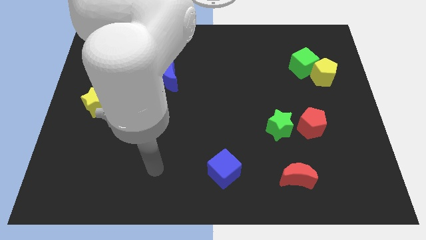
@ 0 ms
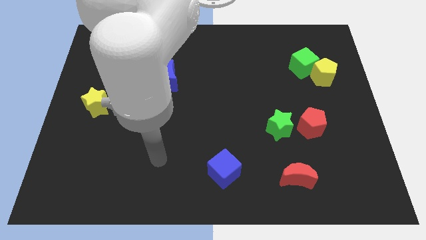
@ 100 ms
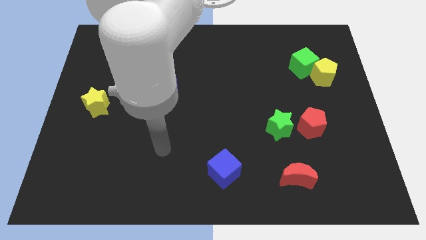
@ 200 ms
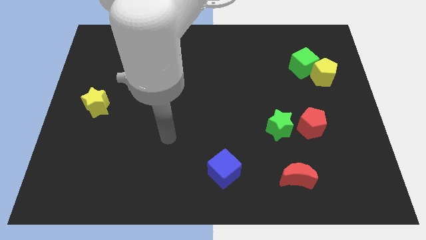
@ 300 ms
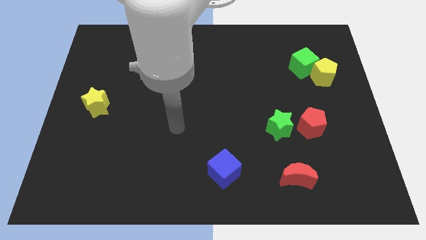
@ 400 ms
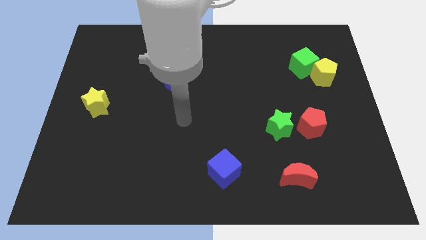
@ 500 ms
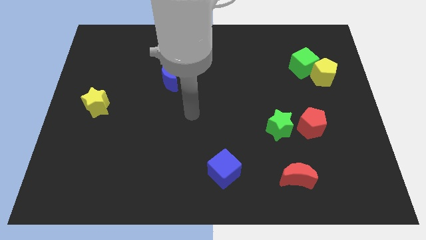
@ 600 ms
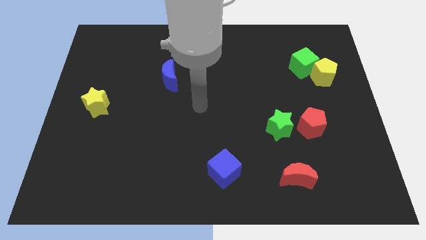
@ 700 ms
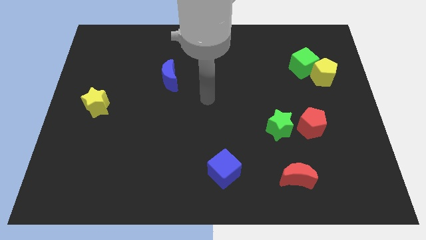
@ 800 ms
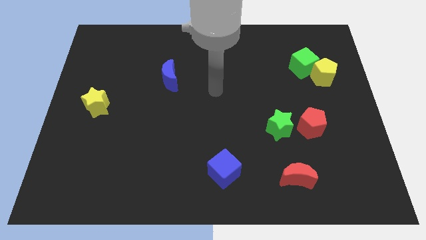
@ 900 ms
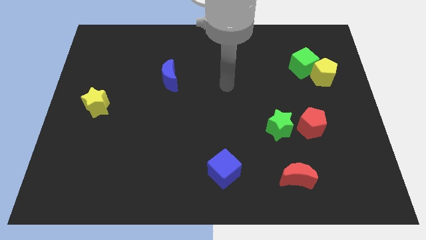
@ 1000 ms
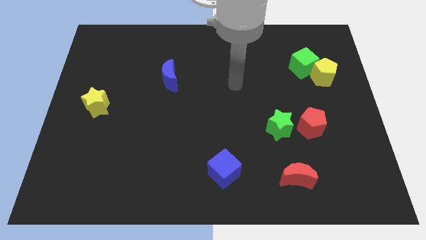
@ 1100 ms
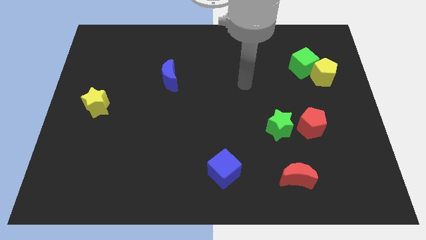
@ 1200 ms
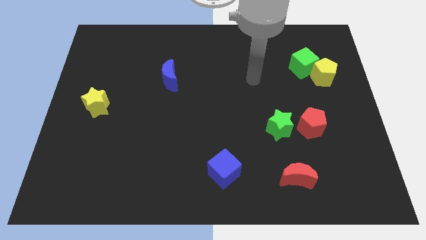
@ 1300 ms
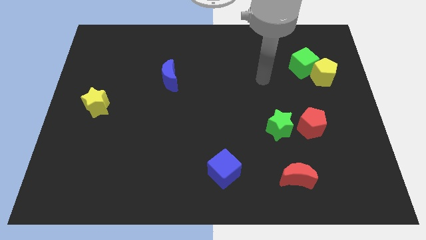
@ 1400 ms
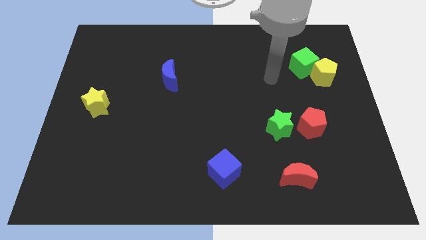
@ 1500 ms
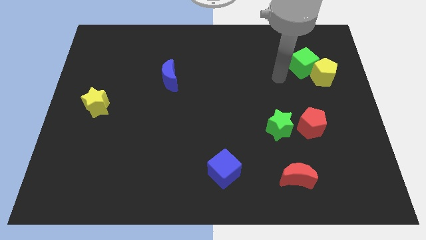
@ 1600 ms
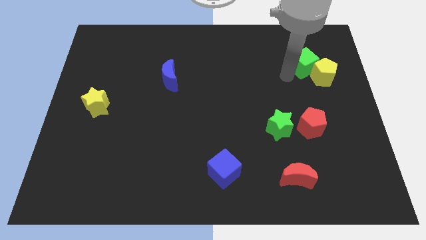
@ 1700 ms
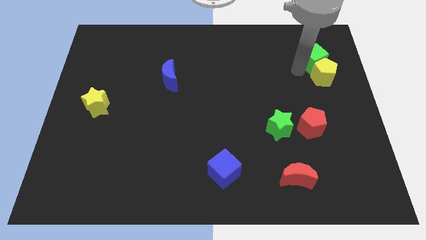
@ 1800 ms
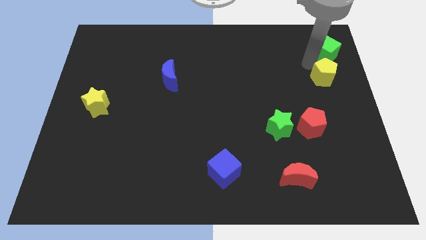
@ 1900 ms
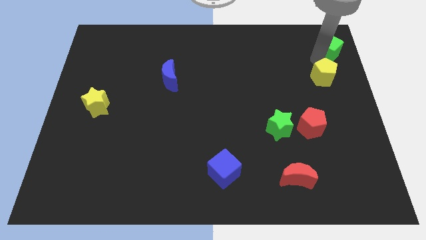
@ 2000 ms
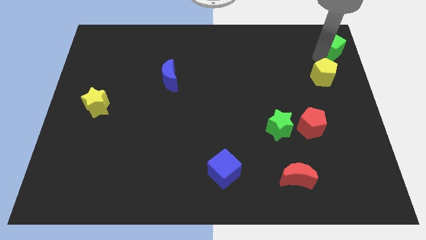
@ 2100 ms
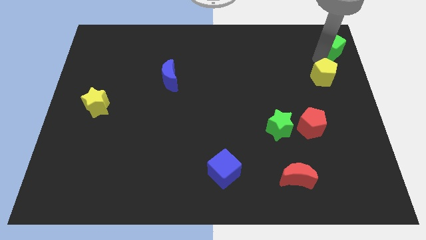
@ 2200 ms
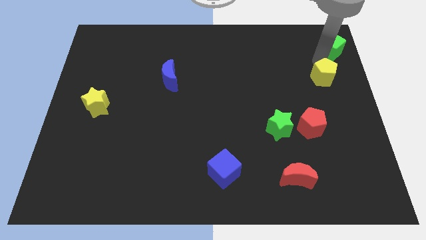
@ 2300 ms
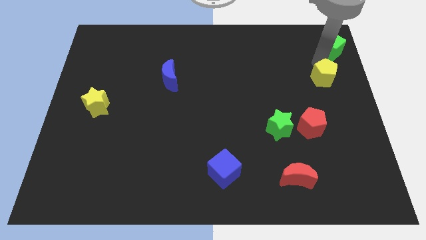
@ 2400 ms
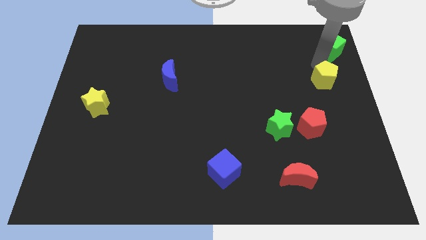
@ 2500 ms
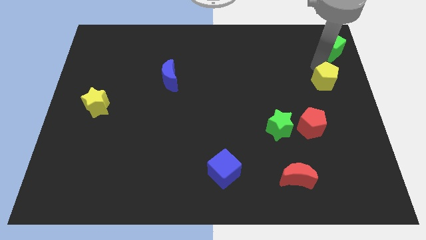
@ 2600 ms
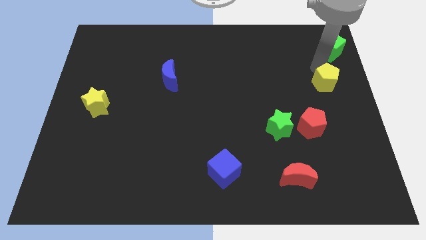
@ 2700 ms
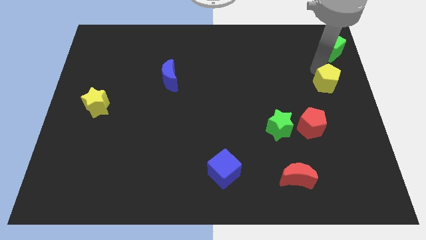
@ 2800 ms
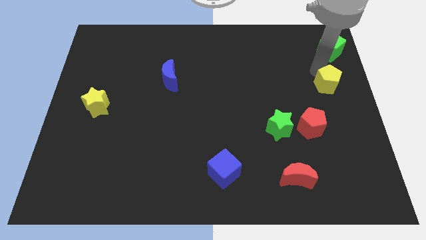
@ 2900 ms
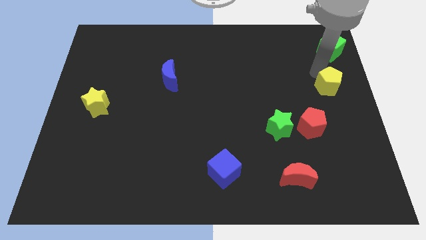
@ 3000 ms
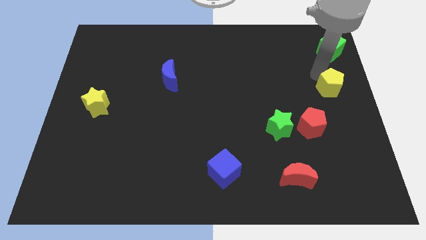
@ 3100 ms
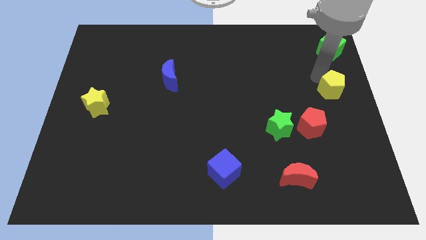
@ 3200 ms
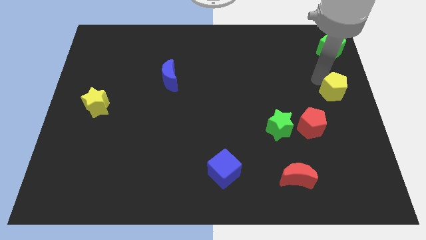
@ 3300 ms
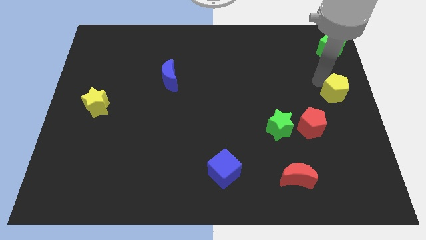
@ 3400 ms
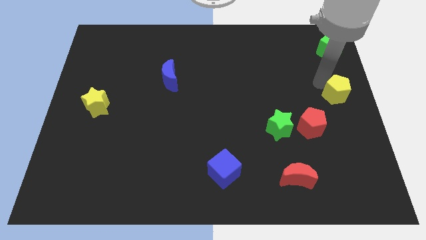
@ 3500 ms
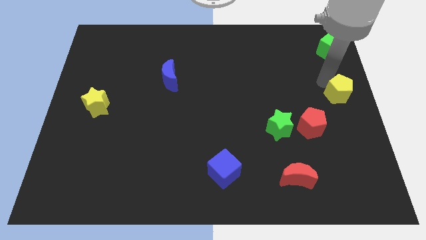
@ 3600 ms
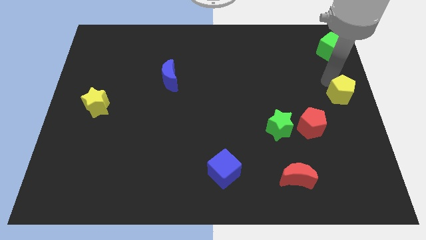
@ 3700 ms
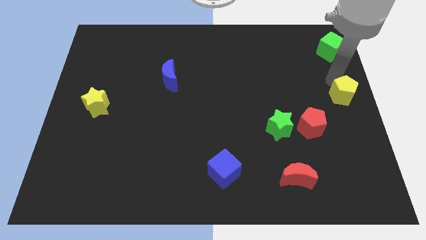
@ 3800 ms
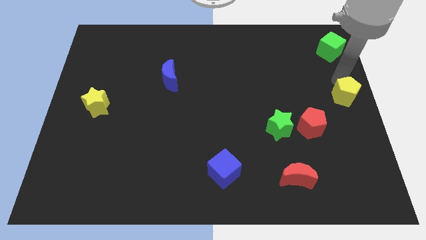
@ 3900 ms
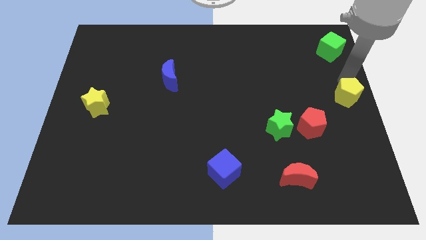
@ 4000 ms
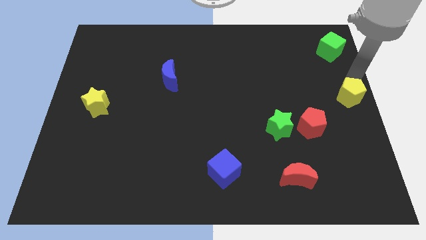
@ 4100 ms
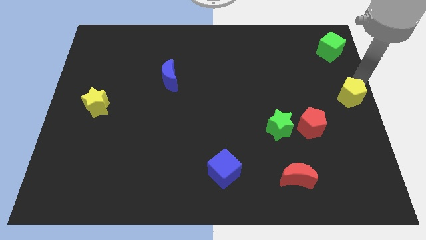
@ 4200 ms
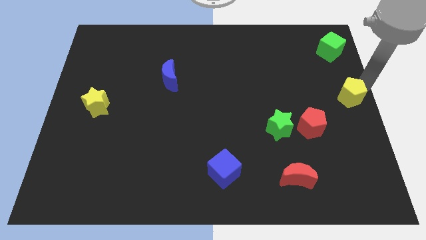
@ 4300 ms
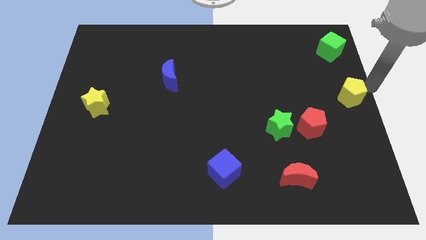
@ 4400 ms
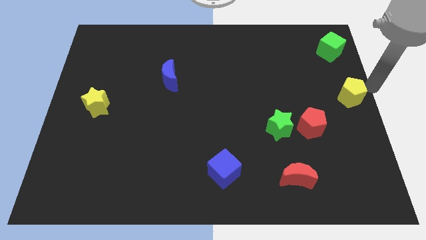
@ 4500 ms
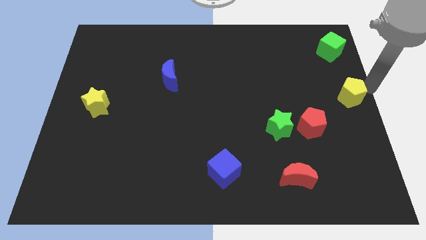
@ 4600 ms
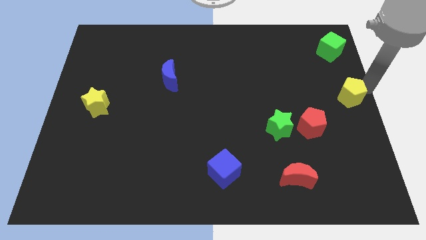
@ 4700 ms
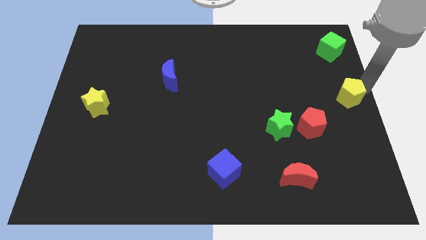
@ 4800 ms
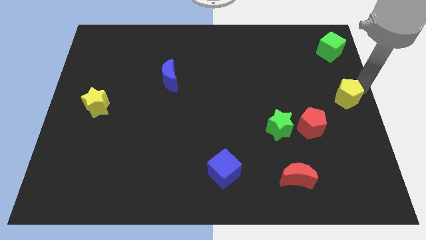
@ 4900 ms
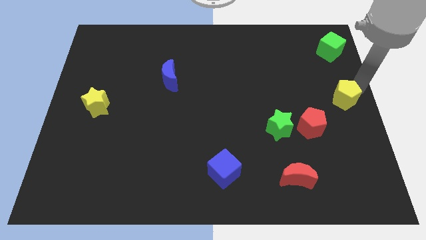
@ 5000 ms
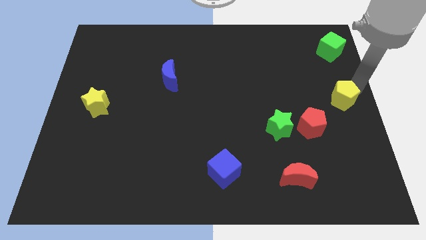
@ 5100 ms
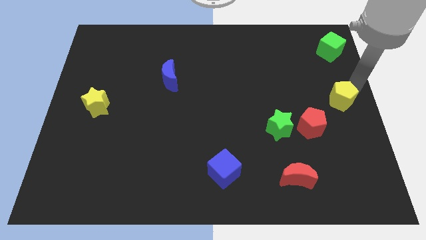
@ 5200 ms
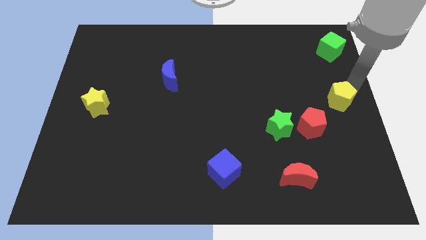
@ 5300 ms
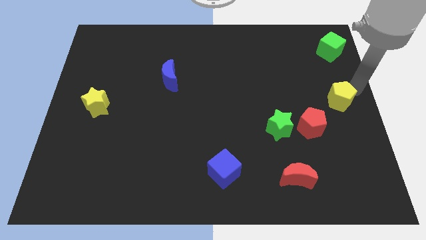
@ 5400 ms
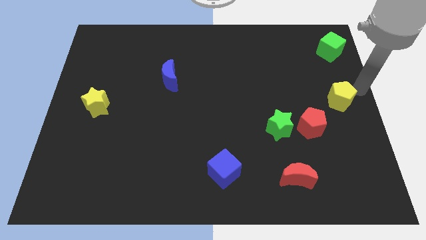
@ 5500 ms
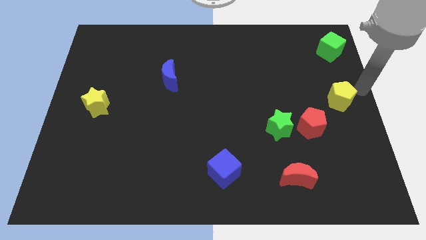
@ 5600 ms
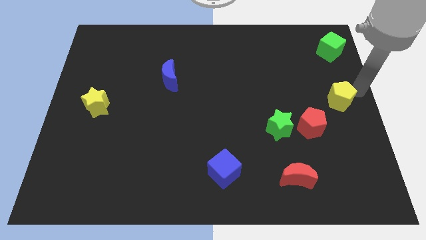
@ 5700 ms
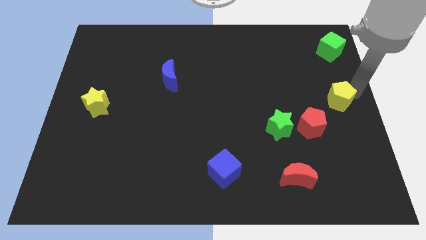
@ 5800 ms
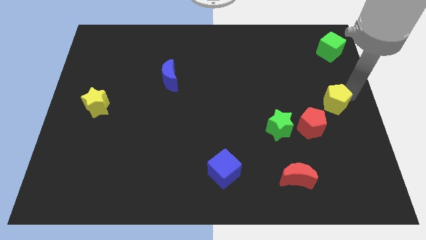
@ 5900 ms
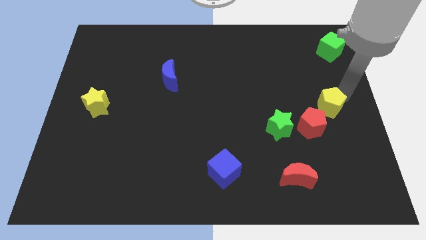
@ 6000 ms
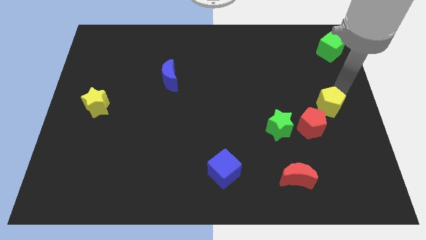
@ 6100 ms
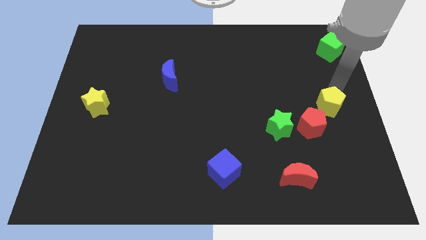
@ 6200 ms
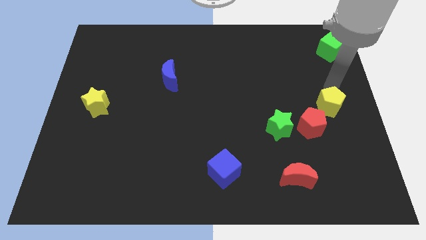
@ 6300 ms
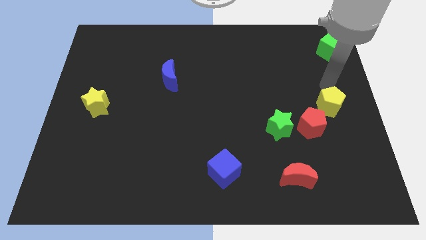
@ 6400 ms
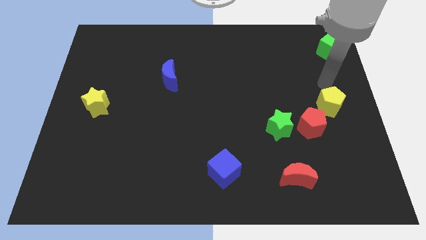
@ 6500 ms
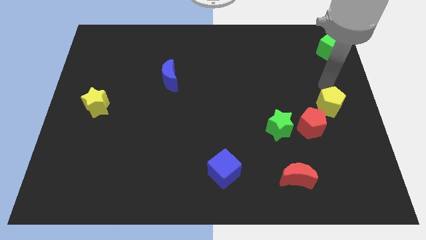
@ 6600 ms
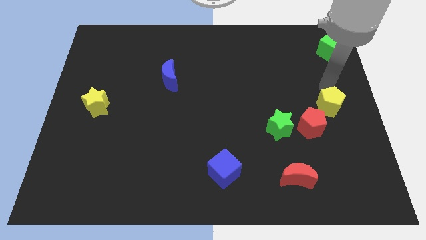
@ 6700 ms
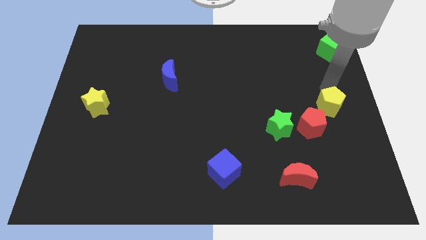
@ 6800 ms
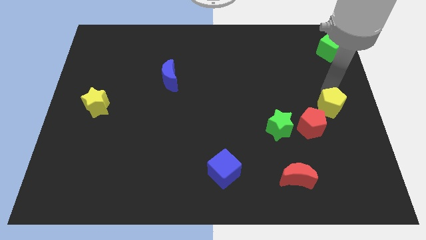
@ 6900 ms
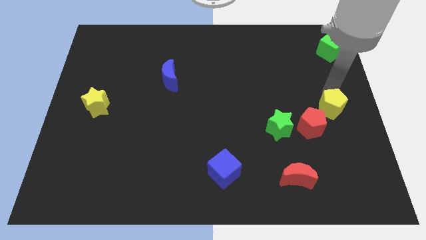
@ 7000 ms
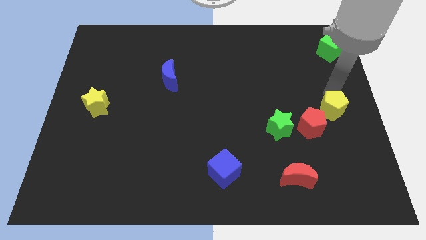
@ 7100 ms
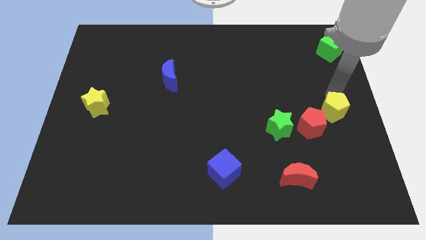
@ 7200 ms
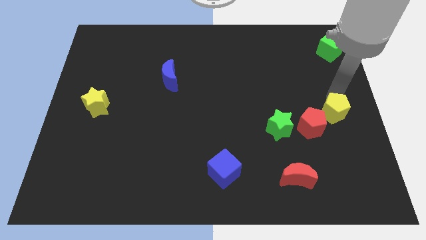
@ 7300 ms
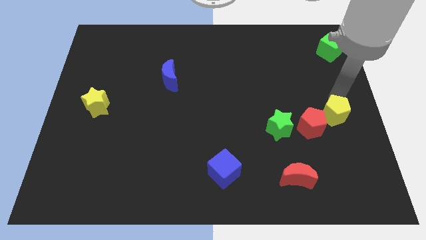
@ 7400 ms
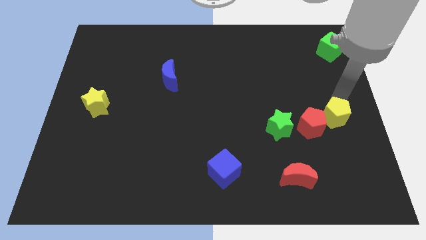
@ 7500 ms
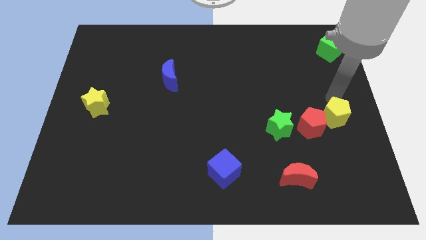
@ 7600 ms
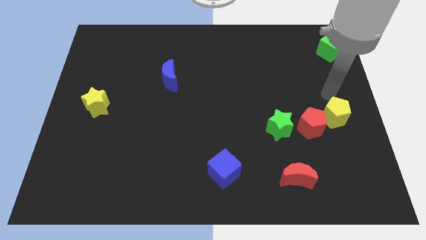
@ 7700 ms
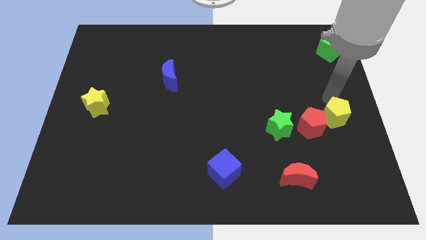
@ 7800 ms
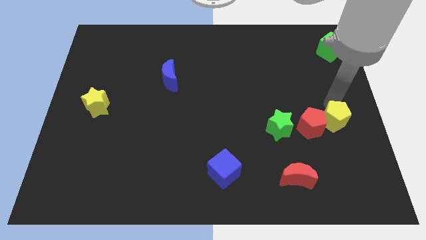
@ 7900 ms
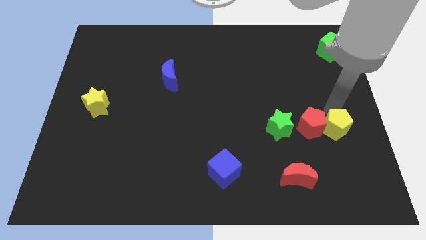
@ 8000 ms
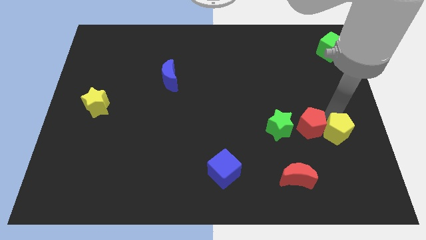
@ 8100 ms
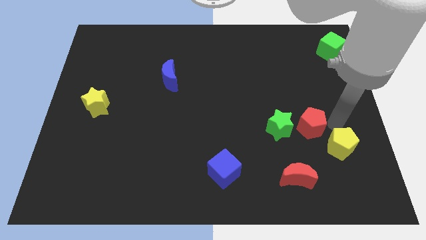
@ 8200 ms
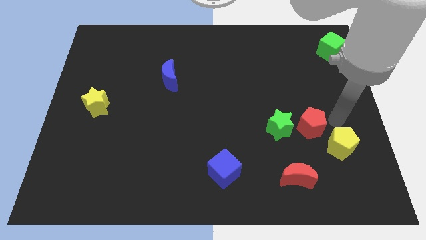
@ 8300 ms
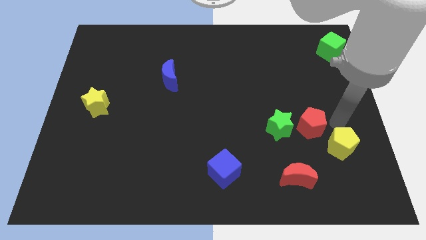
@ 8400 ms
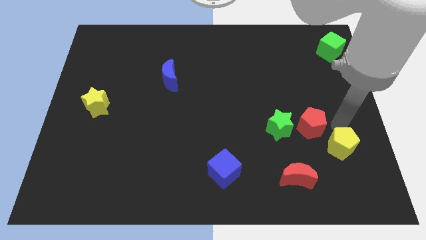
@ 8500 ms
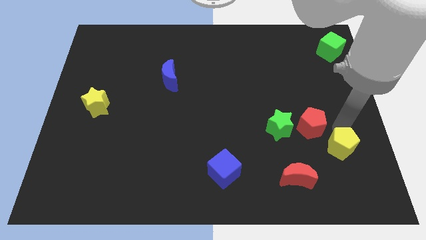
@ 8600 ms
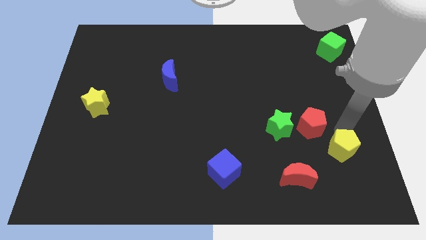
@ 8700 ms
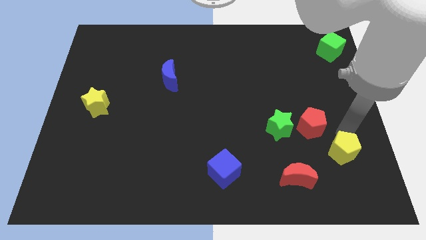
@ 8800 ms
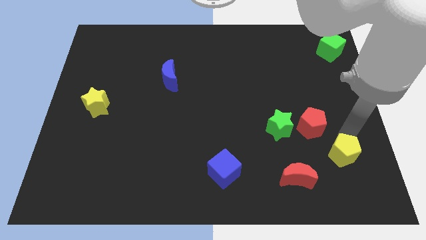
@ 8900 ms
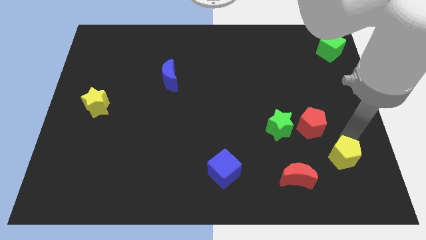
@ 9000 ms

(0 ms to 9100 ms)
put the yellow pentagon right of the red moon
